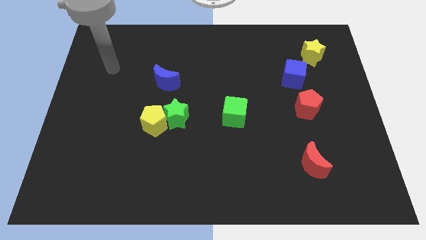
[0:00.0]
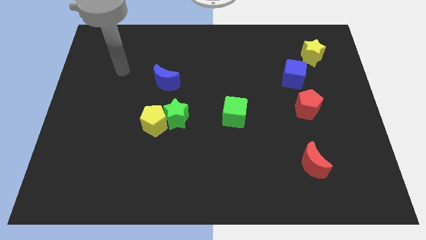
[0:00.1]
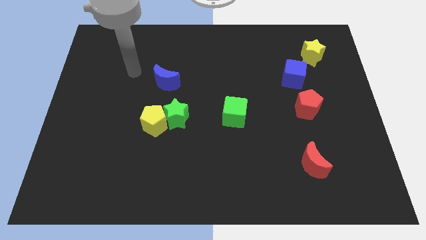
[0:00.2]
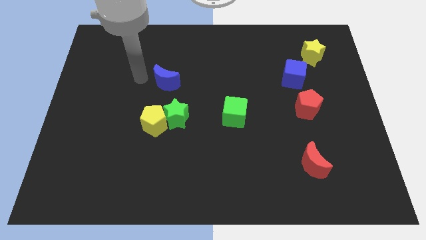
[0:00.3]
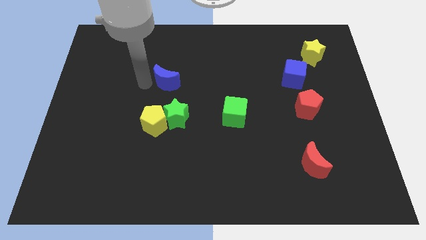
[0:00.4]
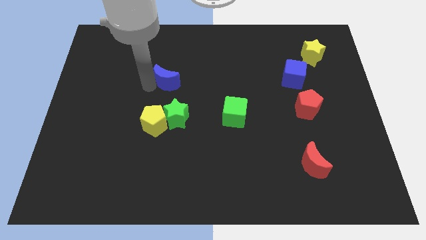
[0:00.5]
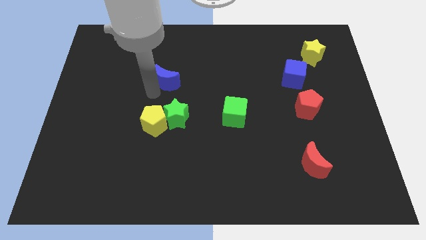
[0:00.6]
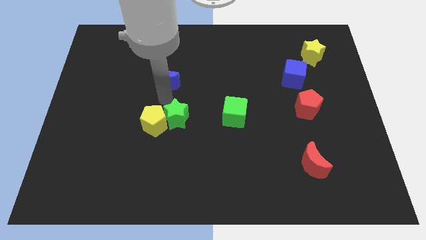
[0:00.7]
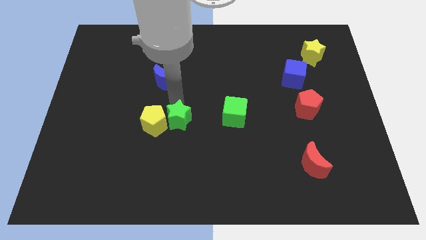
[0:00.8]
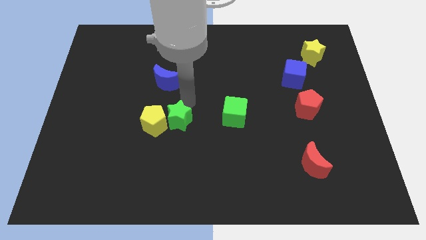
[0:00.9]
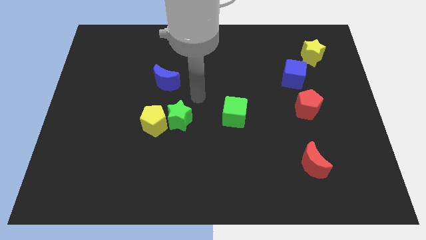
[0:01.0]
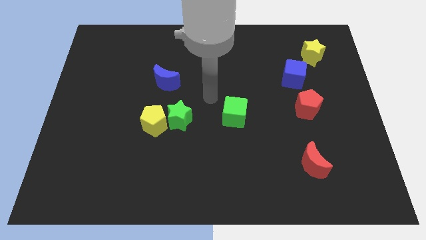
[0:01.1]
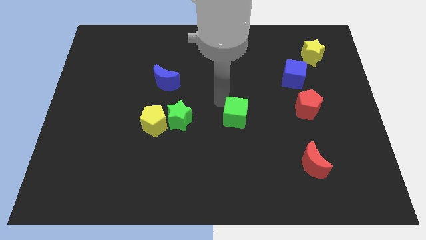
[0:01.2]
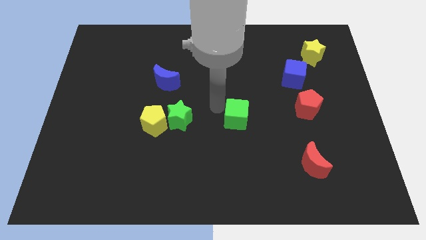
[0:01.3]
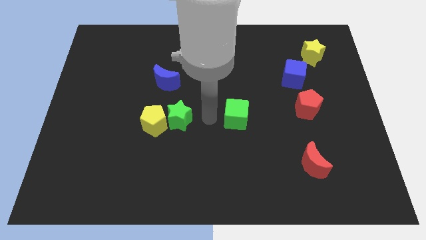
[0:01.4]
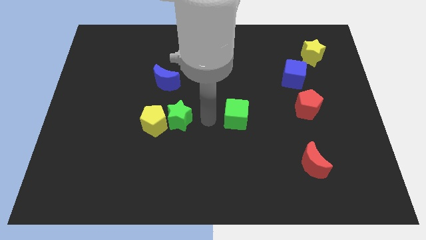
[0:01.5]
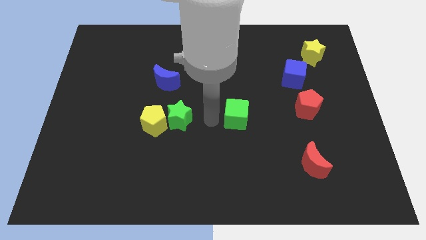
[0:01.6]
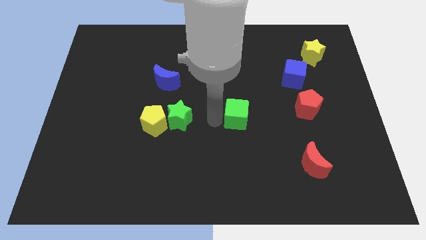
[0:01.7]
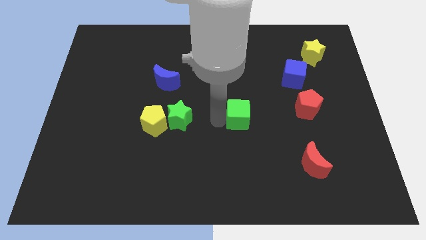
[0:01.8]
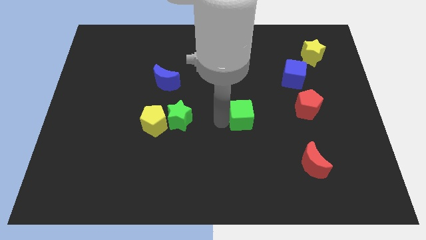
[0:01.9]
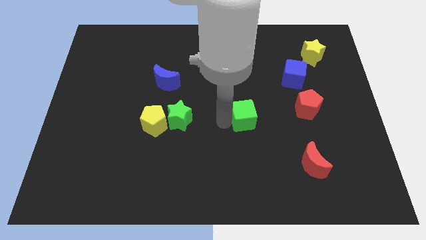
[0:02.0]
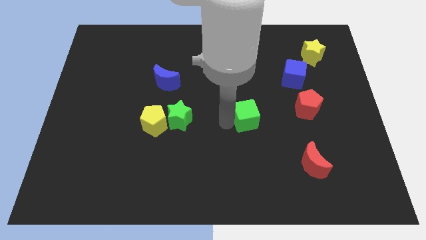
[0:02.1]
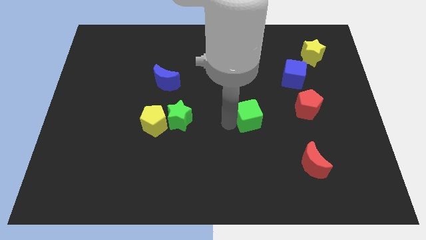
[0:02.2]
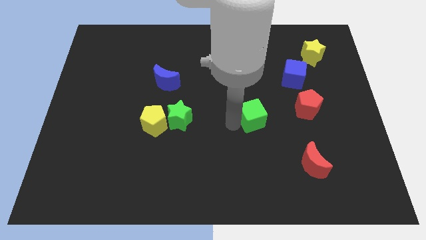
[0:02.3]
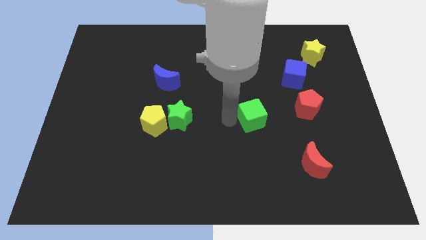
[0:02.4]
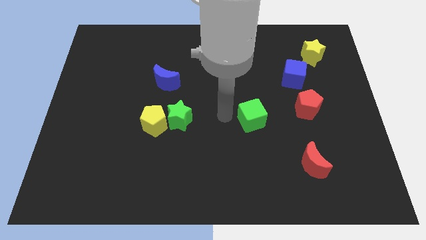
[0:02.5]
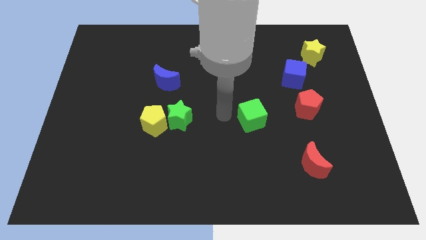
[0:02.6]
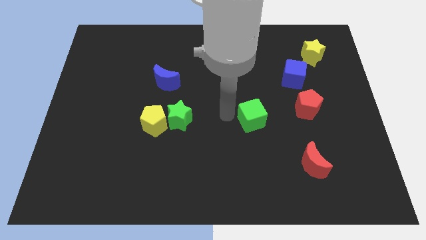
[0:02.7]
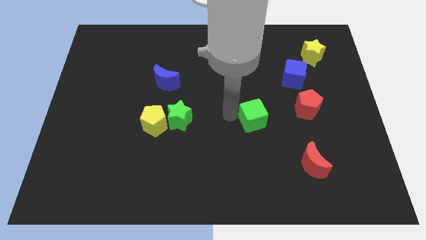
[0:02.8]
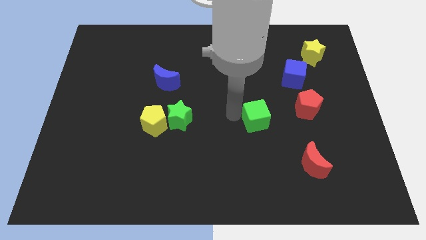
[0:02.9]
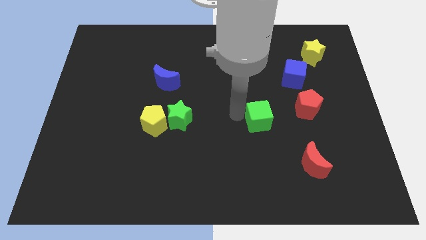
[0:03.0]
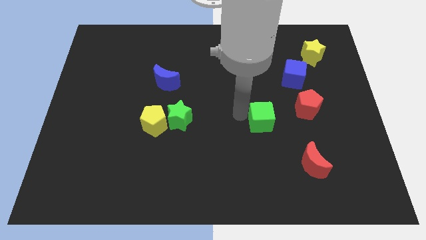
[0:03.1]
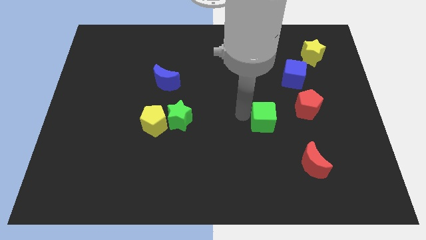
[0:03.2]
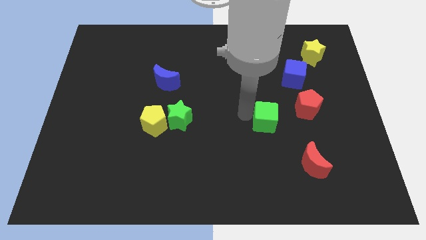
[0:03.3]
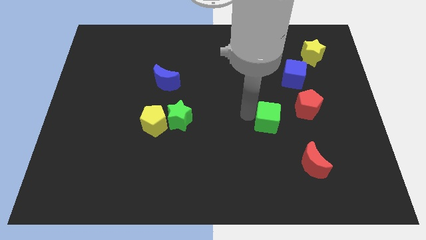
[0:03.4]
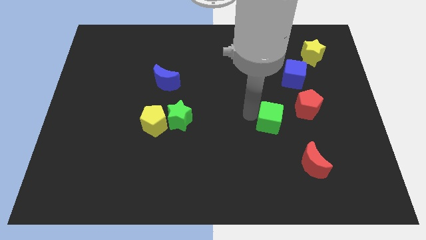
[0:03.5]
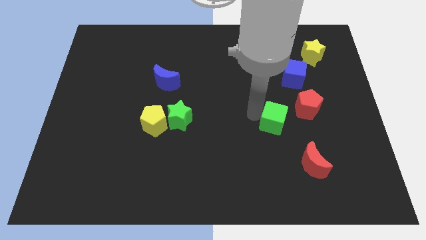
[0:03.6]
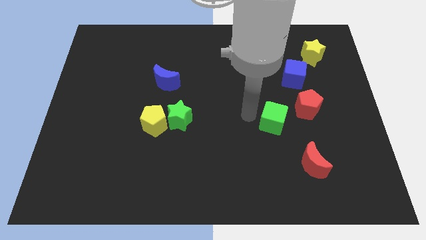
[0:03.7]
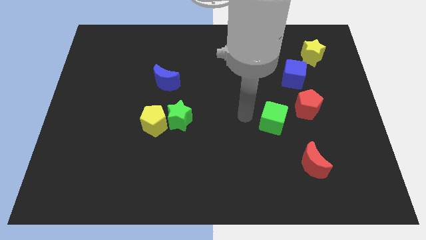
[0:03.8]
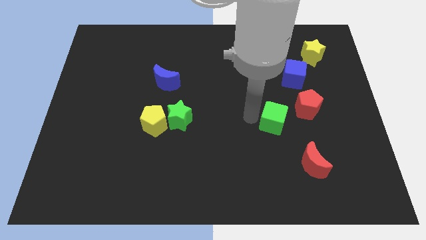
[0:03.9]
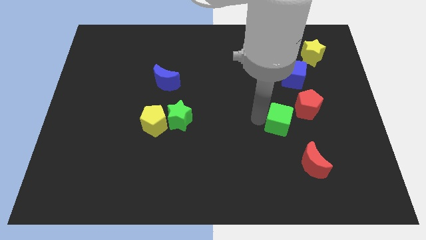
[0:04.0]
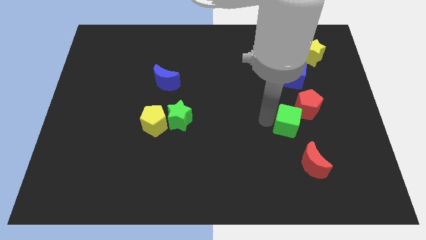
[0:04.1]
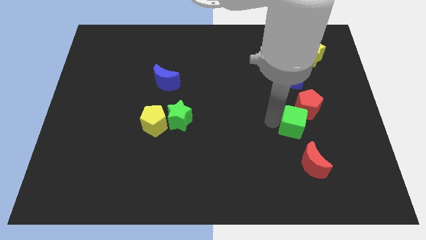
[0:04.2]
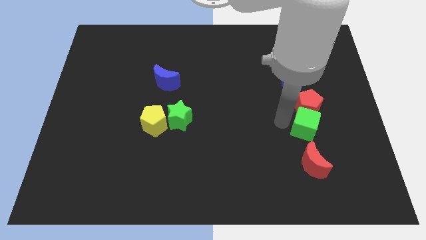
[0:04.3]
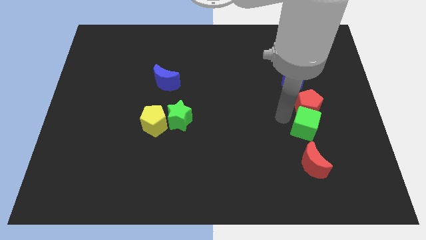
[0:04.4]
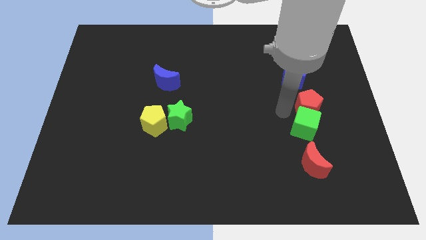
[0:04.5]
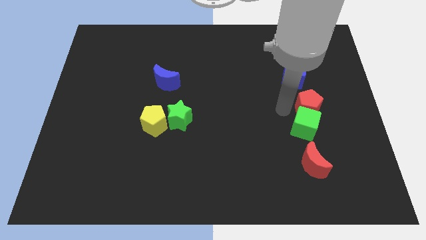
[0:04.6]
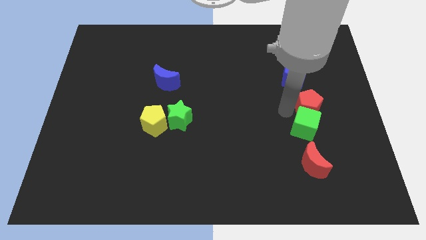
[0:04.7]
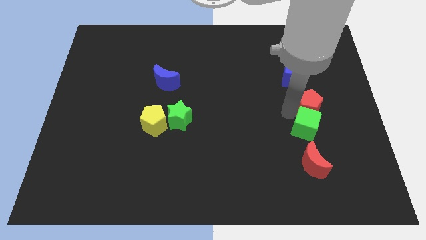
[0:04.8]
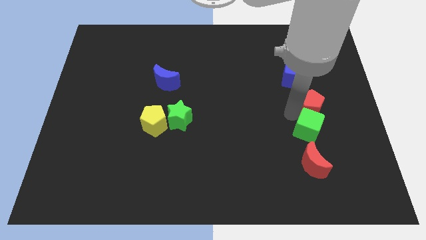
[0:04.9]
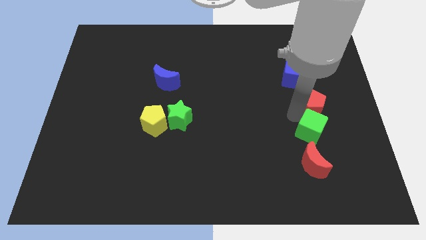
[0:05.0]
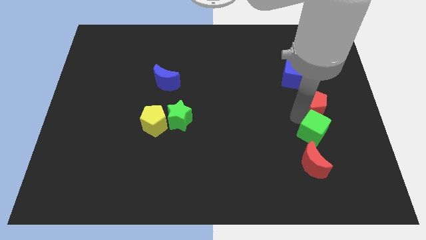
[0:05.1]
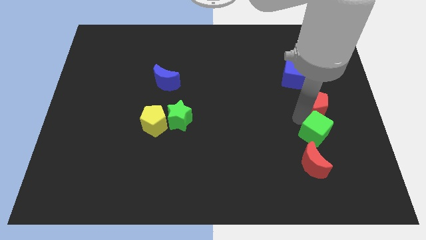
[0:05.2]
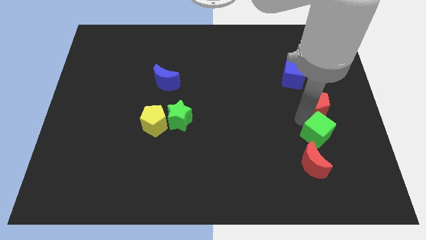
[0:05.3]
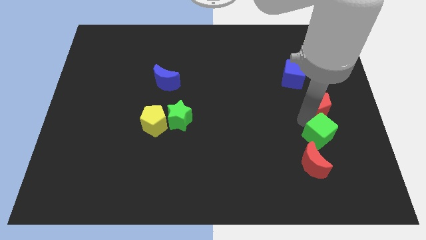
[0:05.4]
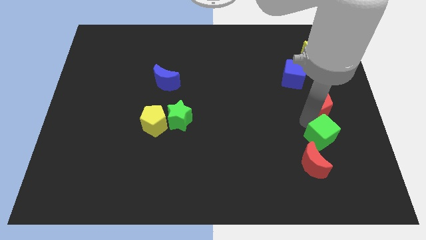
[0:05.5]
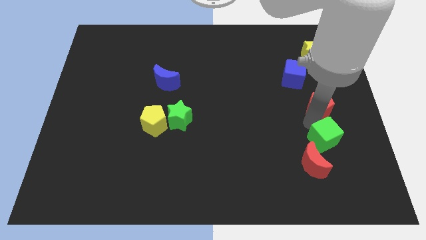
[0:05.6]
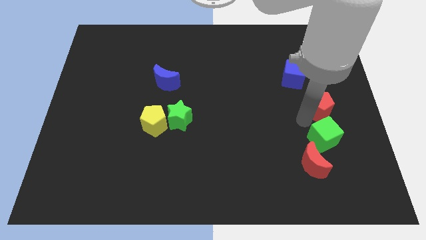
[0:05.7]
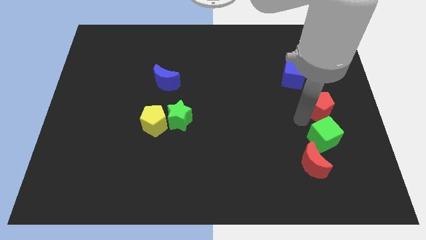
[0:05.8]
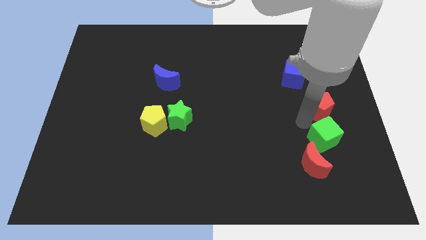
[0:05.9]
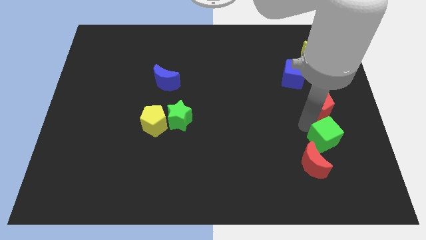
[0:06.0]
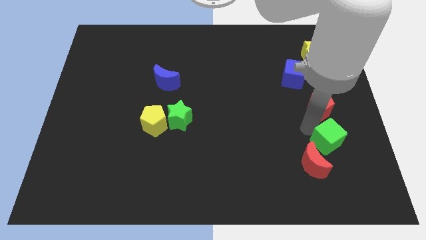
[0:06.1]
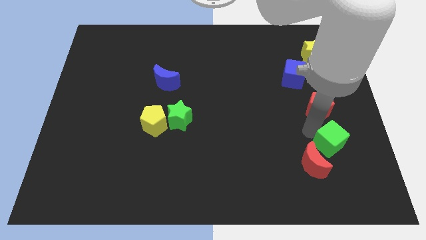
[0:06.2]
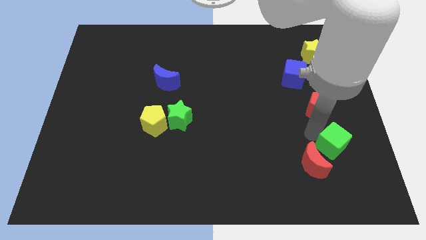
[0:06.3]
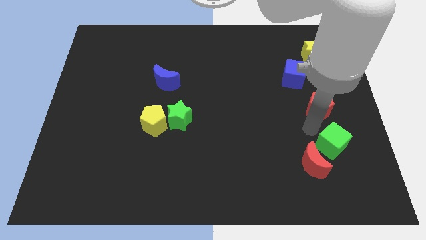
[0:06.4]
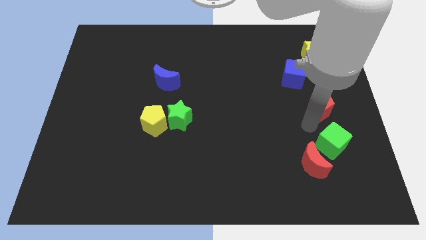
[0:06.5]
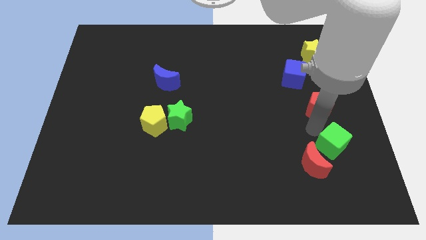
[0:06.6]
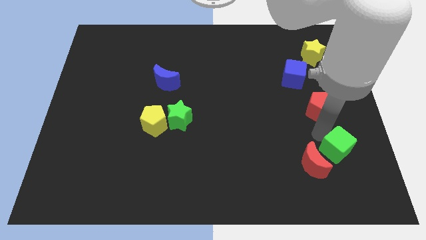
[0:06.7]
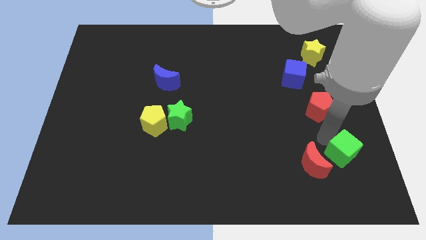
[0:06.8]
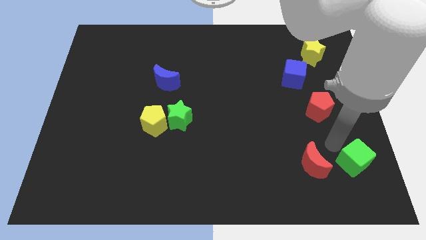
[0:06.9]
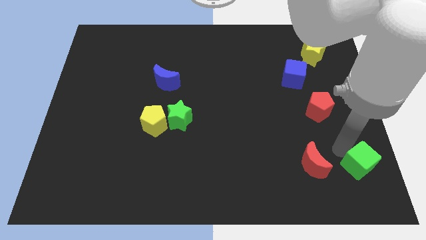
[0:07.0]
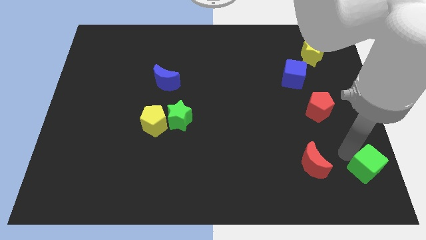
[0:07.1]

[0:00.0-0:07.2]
put the green cube to the bottom right of the board

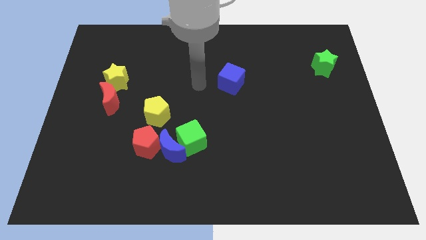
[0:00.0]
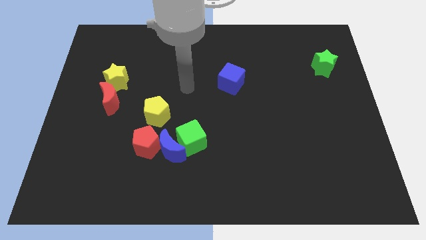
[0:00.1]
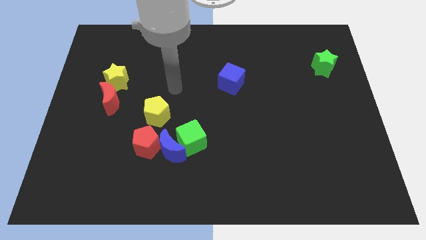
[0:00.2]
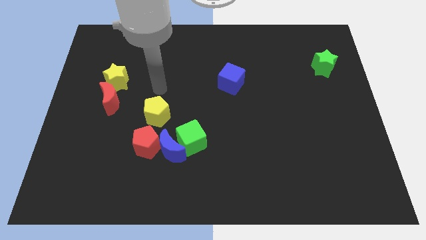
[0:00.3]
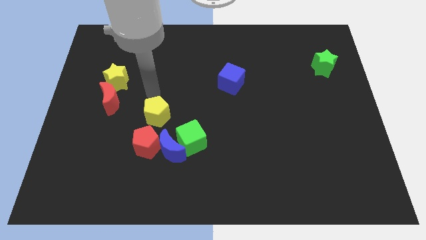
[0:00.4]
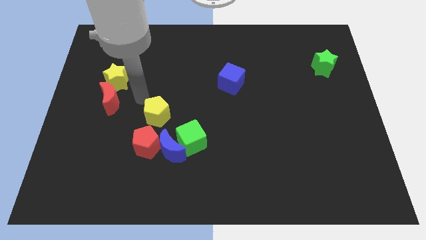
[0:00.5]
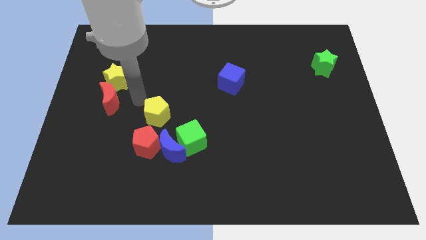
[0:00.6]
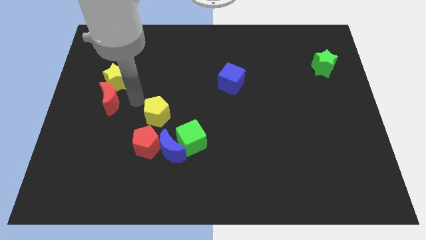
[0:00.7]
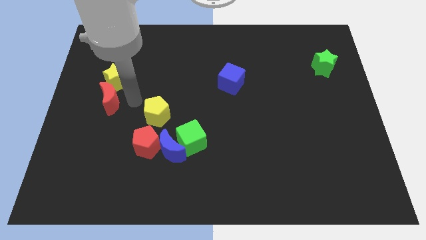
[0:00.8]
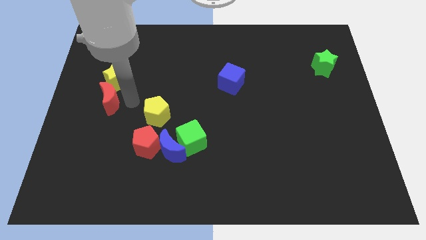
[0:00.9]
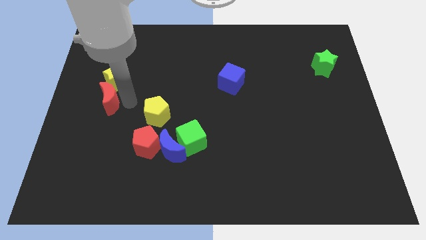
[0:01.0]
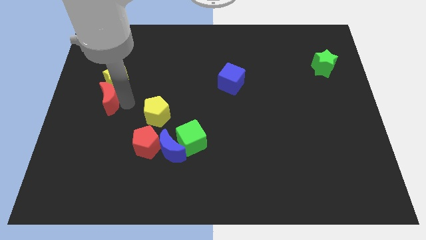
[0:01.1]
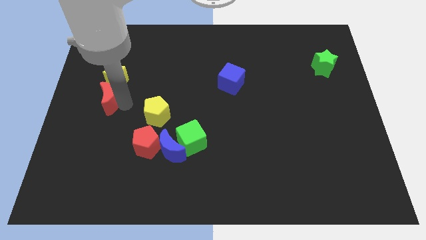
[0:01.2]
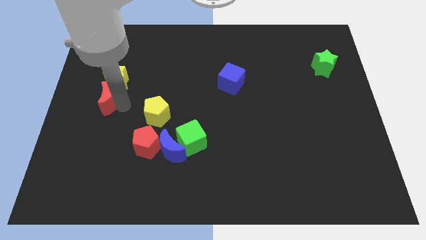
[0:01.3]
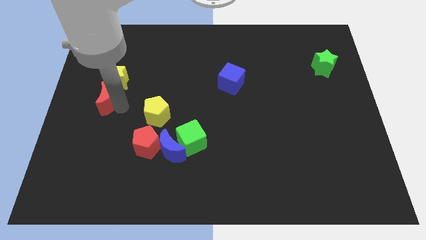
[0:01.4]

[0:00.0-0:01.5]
slide the red moon to the left side
